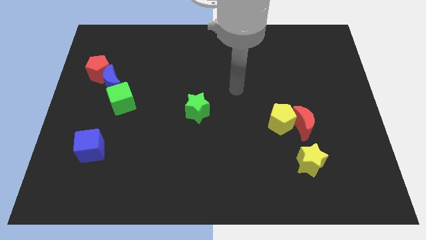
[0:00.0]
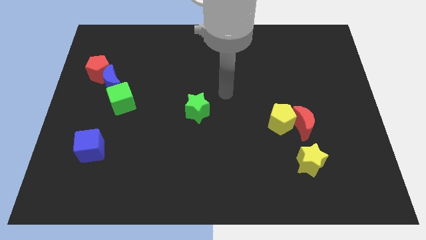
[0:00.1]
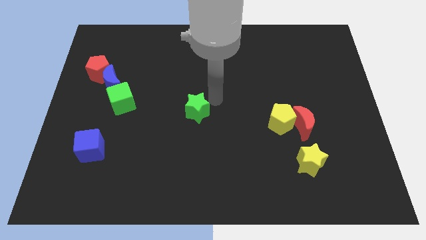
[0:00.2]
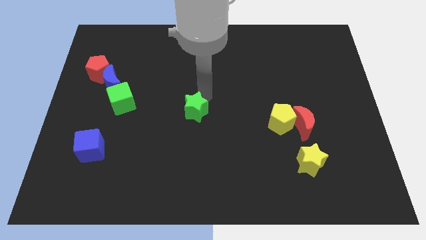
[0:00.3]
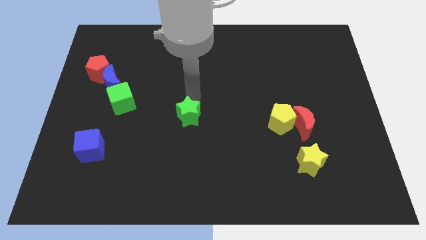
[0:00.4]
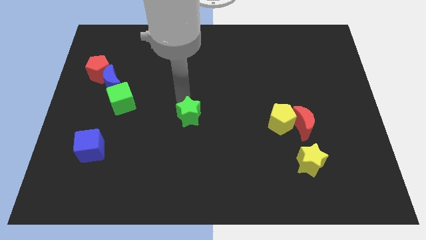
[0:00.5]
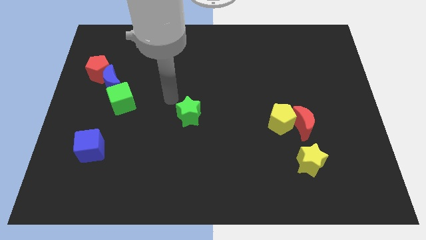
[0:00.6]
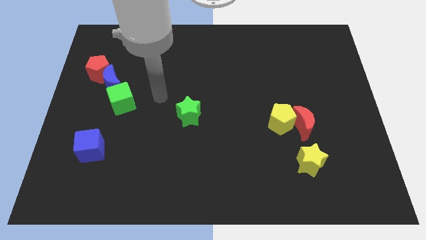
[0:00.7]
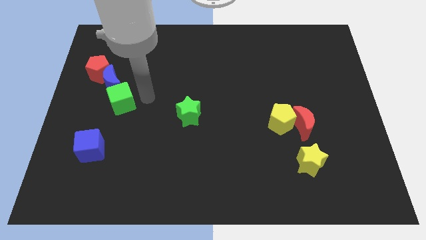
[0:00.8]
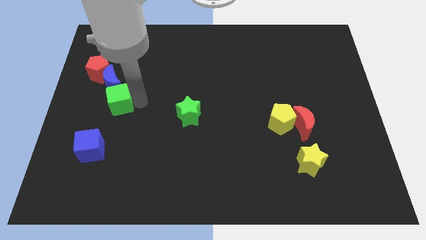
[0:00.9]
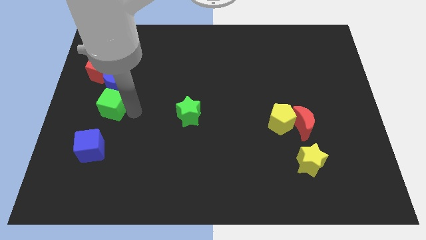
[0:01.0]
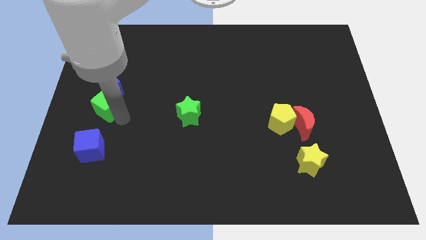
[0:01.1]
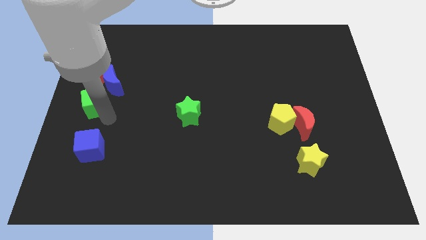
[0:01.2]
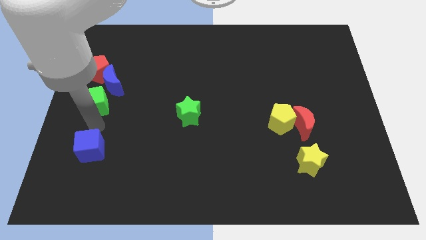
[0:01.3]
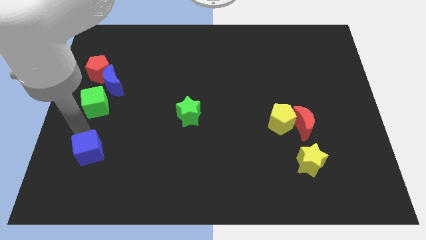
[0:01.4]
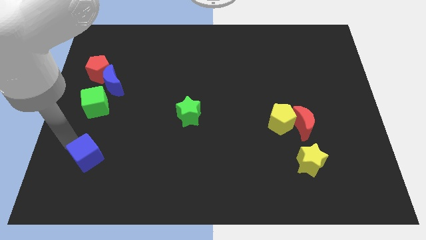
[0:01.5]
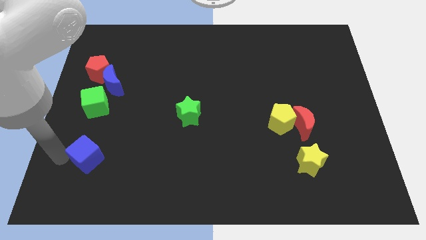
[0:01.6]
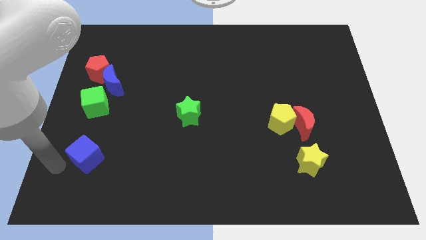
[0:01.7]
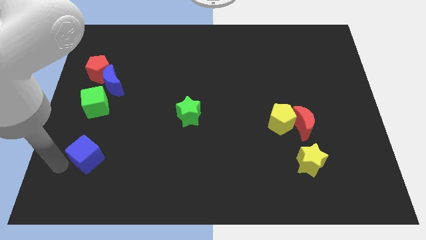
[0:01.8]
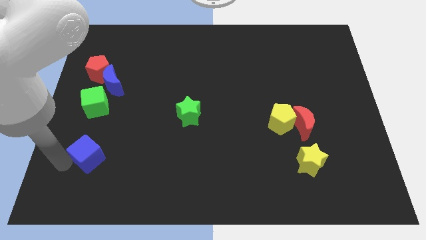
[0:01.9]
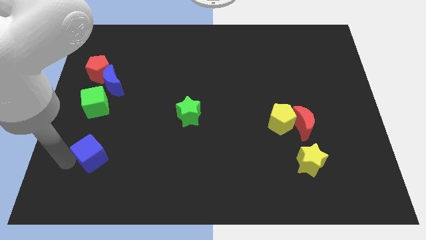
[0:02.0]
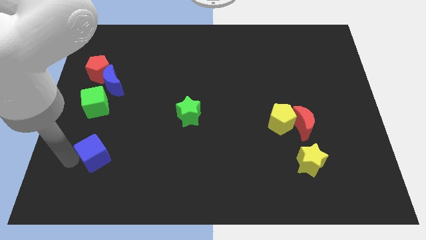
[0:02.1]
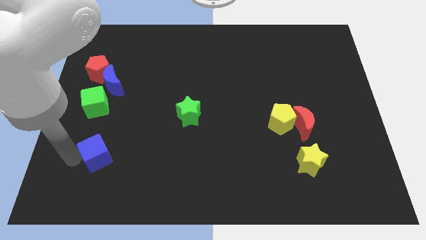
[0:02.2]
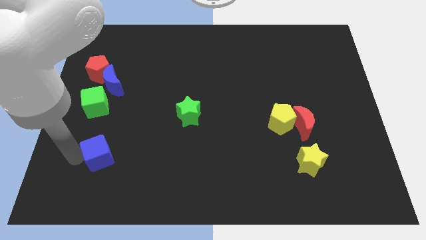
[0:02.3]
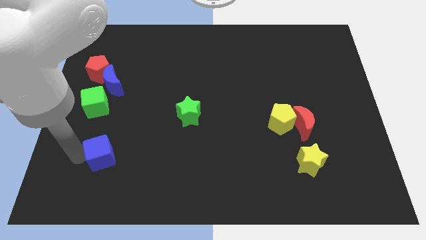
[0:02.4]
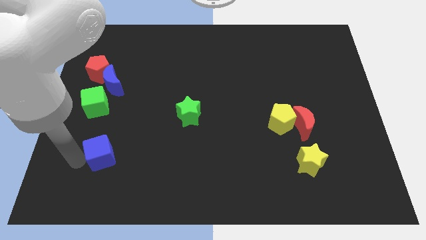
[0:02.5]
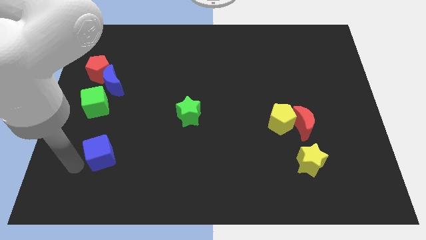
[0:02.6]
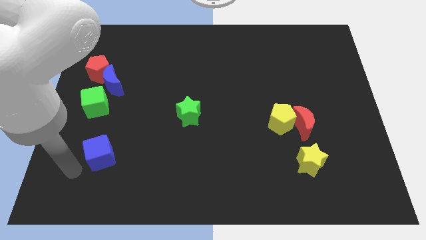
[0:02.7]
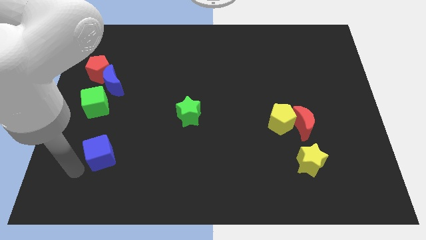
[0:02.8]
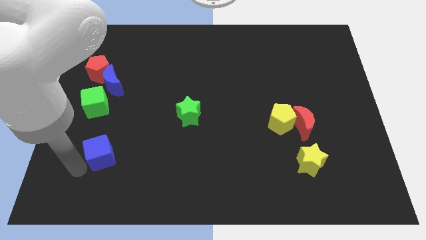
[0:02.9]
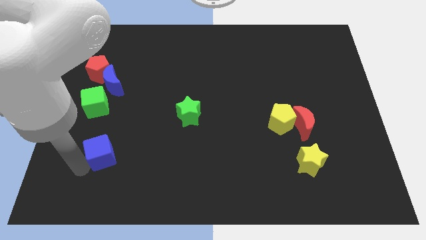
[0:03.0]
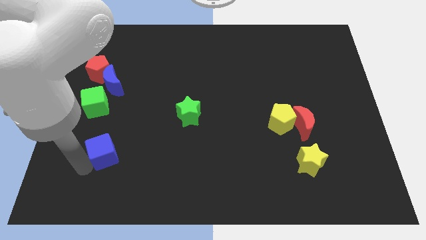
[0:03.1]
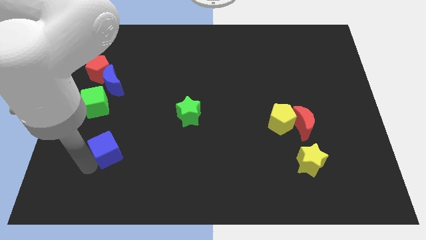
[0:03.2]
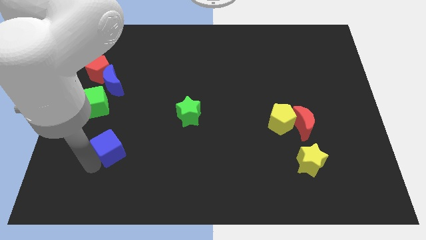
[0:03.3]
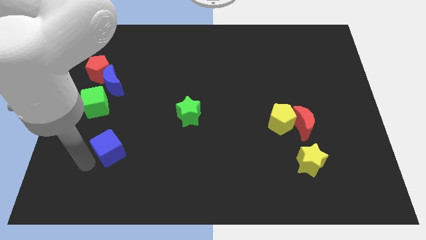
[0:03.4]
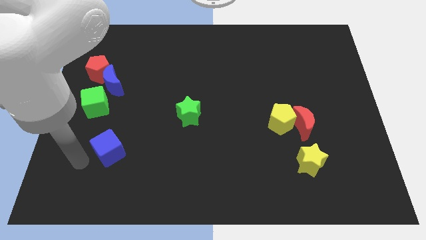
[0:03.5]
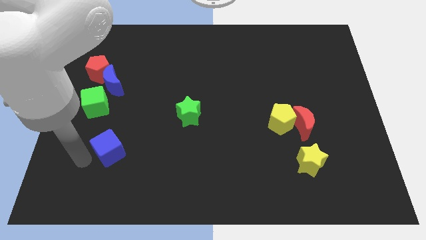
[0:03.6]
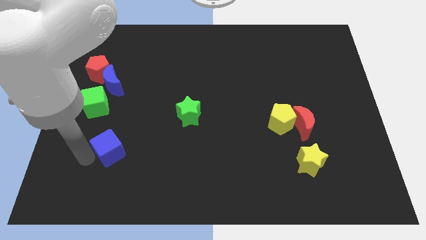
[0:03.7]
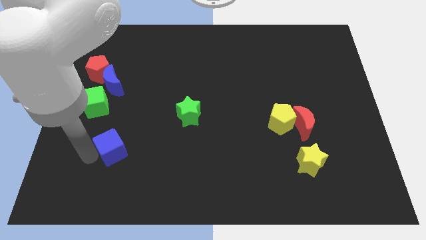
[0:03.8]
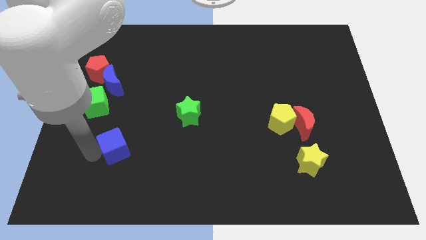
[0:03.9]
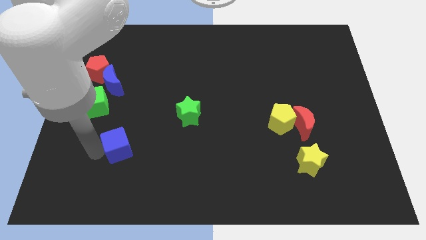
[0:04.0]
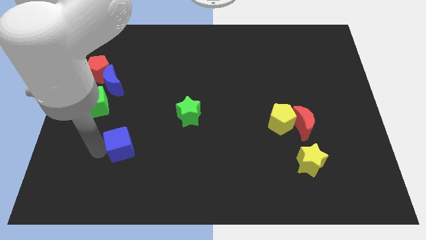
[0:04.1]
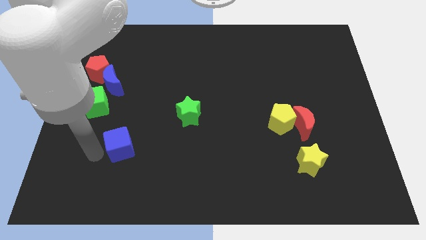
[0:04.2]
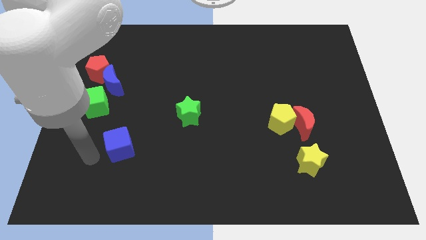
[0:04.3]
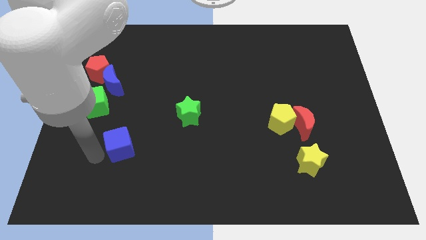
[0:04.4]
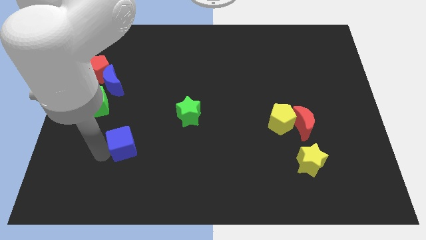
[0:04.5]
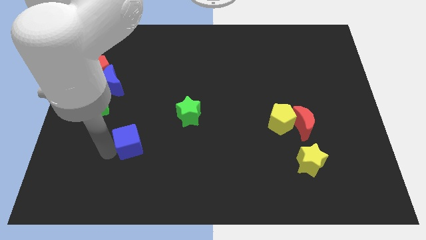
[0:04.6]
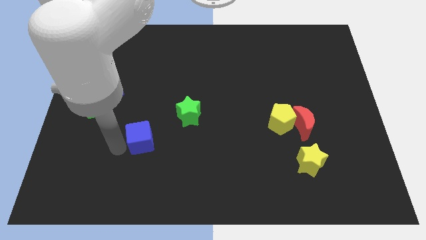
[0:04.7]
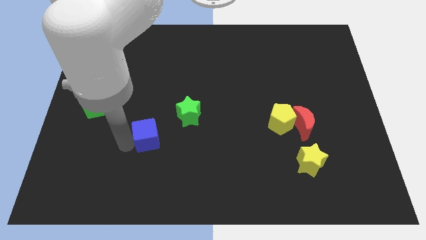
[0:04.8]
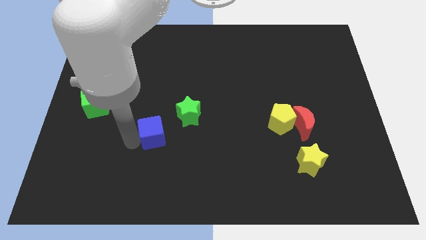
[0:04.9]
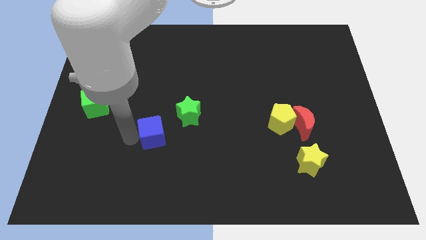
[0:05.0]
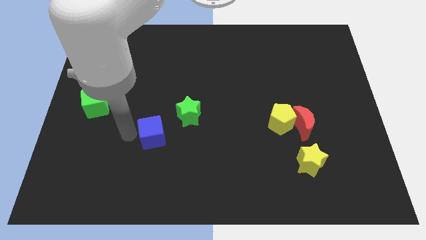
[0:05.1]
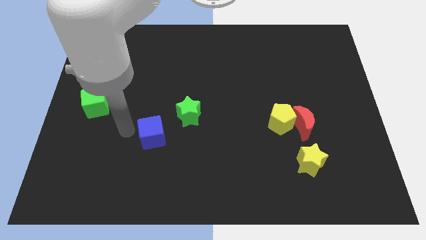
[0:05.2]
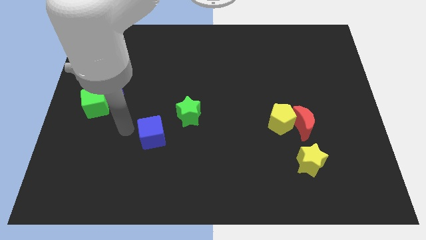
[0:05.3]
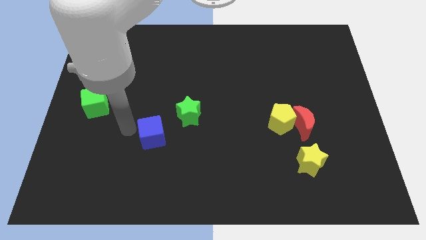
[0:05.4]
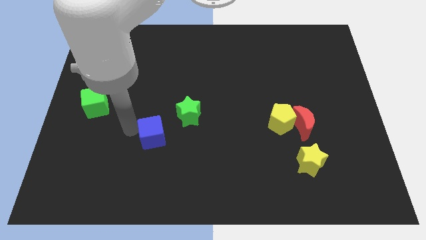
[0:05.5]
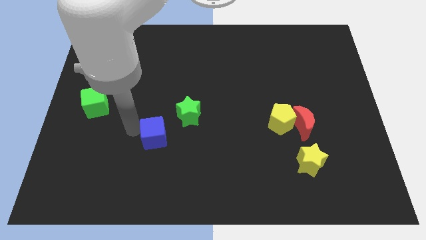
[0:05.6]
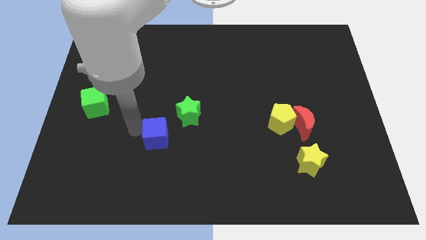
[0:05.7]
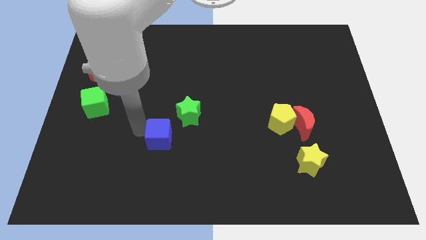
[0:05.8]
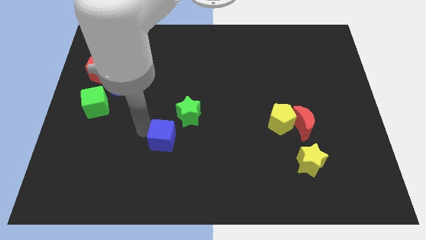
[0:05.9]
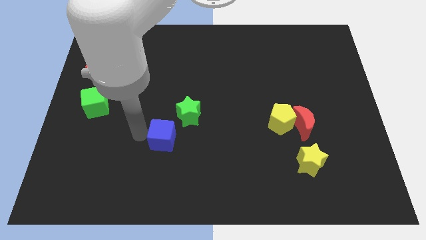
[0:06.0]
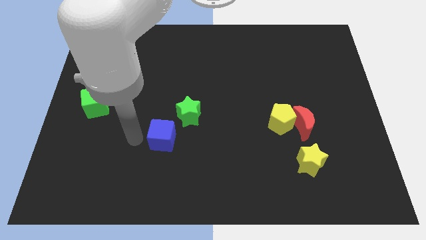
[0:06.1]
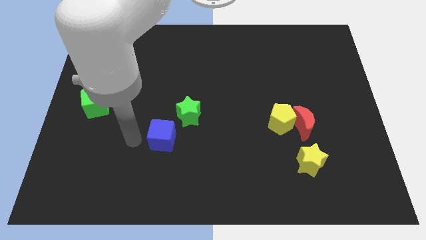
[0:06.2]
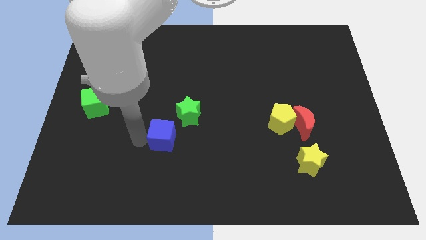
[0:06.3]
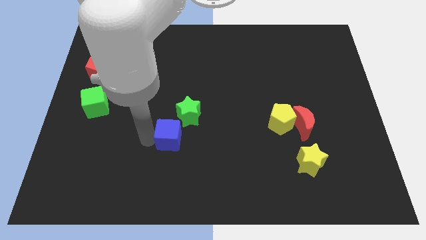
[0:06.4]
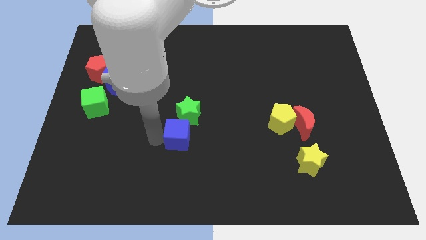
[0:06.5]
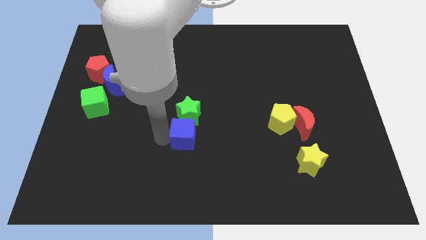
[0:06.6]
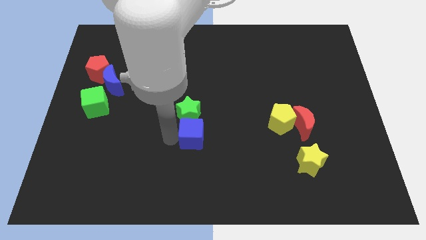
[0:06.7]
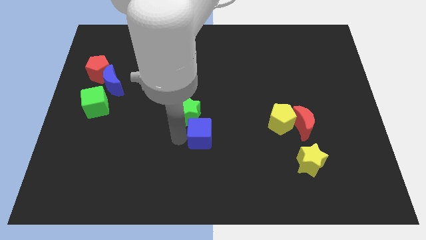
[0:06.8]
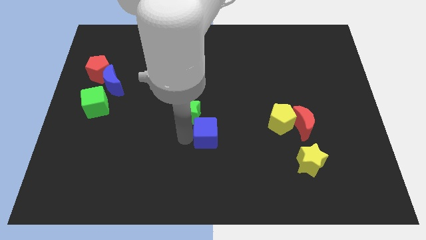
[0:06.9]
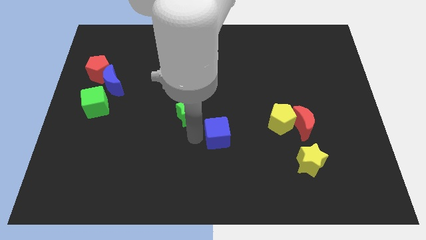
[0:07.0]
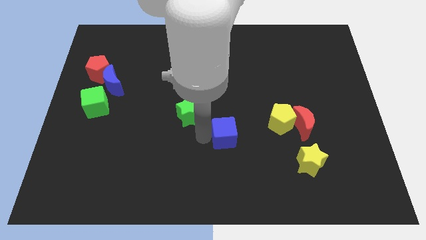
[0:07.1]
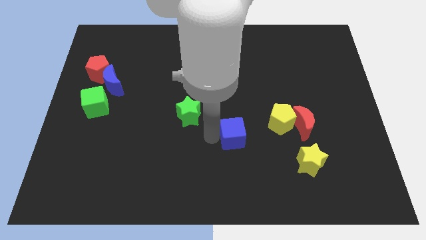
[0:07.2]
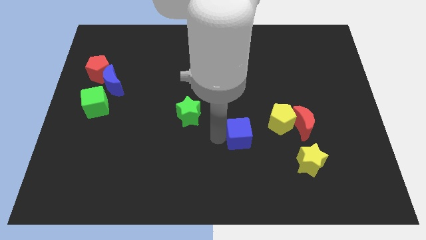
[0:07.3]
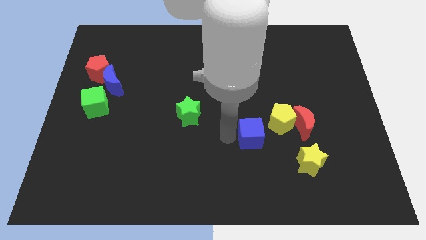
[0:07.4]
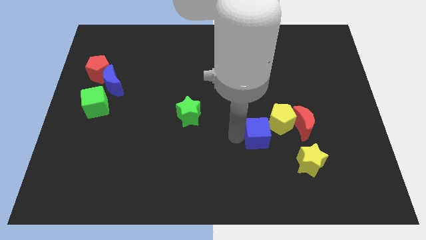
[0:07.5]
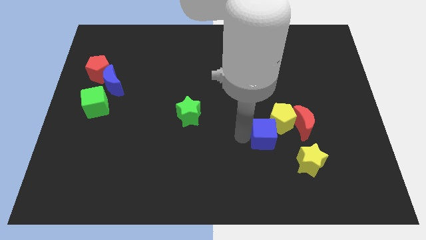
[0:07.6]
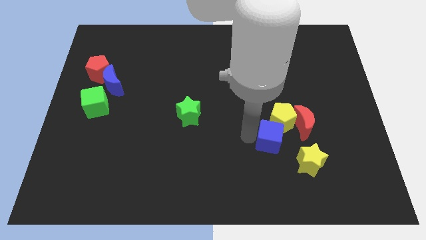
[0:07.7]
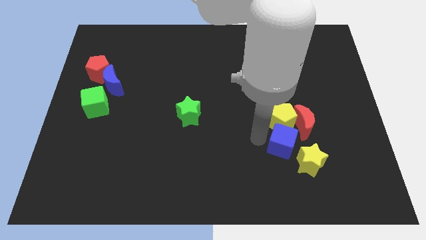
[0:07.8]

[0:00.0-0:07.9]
put the blue cube to the bottom right side of the yellow pentagon
